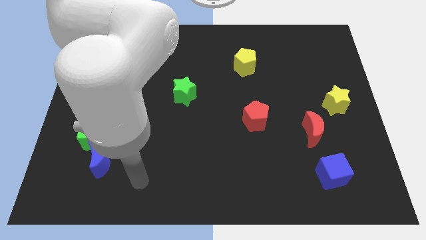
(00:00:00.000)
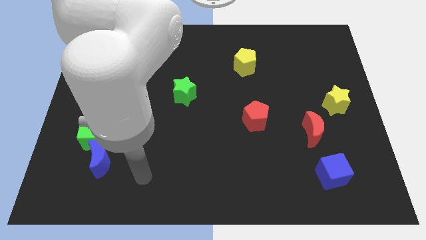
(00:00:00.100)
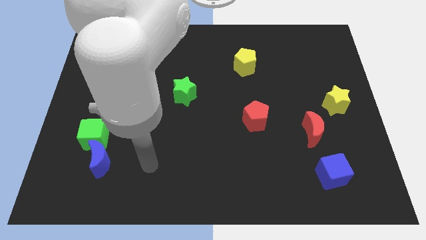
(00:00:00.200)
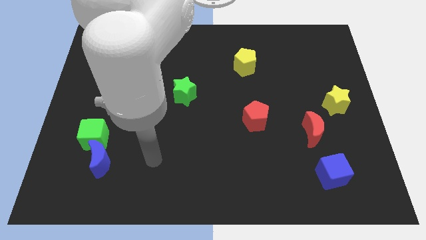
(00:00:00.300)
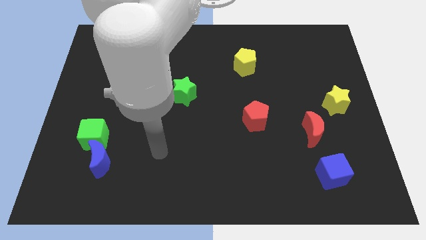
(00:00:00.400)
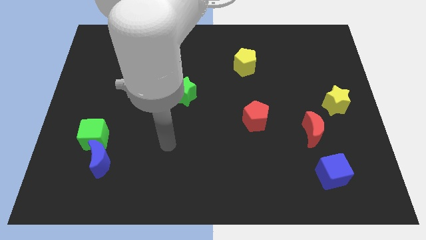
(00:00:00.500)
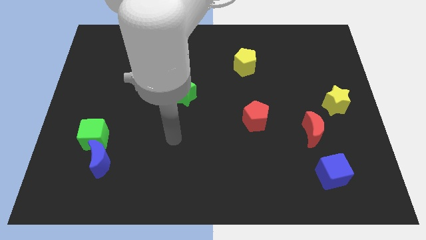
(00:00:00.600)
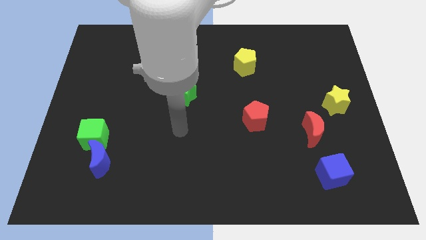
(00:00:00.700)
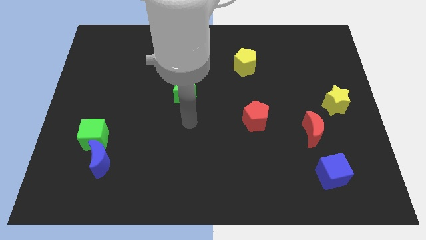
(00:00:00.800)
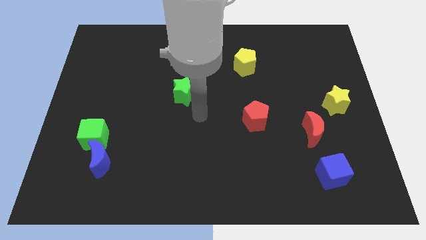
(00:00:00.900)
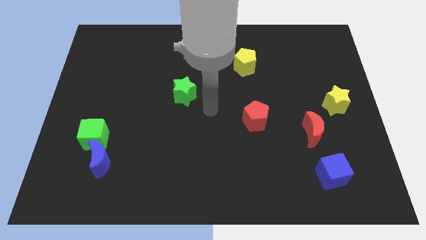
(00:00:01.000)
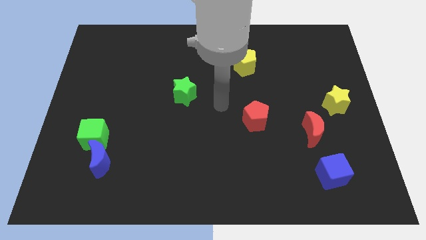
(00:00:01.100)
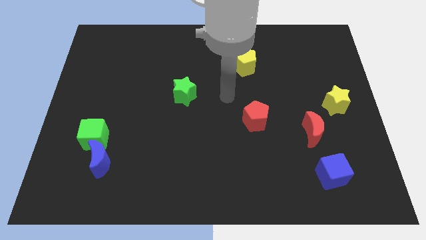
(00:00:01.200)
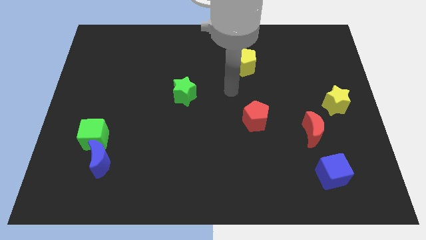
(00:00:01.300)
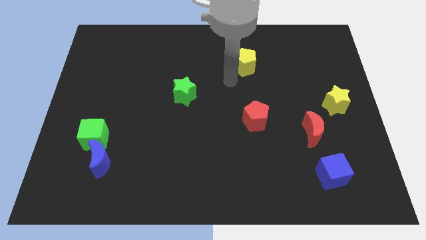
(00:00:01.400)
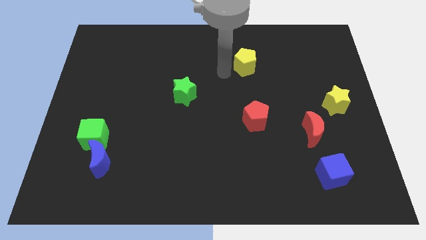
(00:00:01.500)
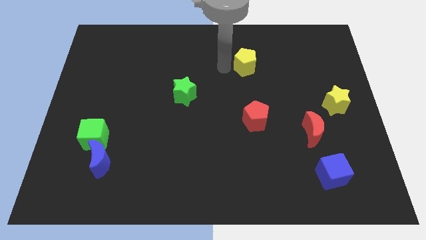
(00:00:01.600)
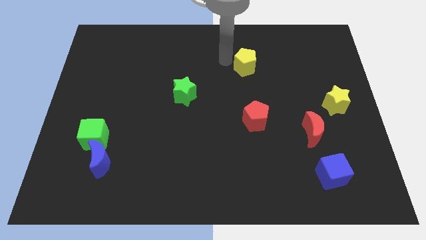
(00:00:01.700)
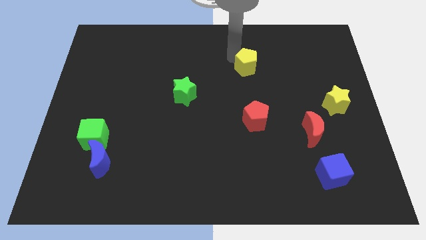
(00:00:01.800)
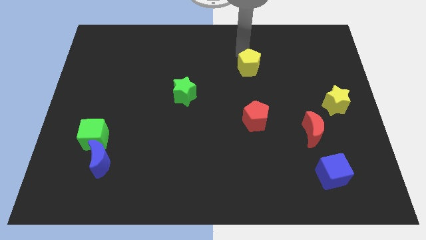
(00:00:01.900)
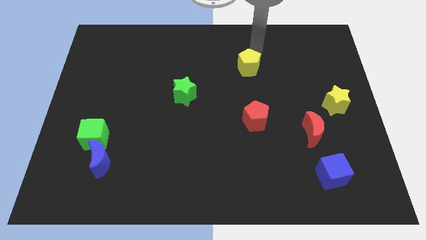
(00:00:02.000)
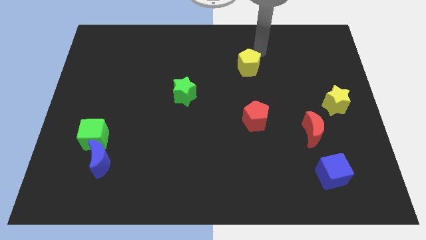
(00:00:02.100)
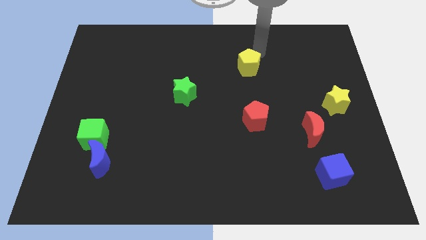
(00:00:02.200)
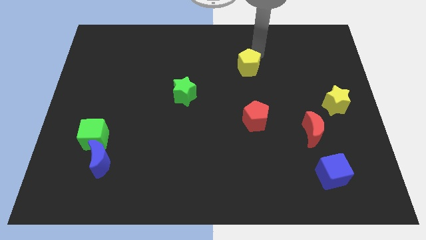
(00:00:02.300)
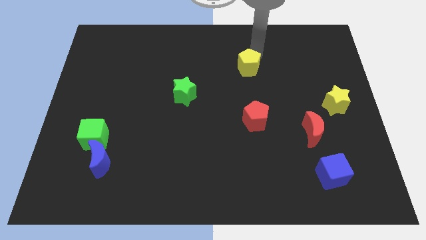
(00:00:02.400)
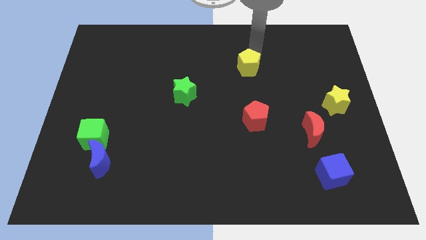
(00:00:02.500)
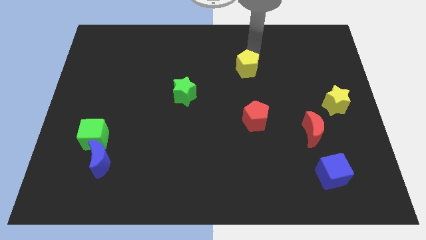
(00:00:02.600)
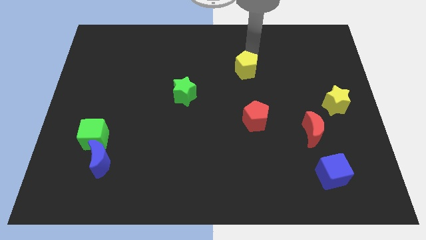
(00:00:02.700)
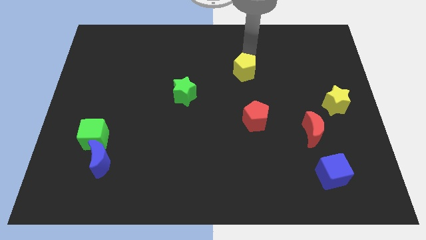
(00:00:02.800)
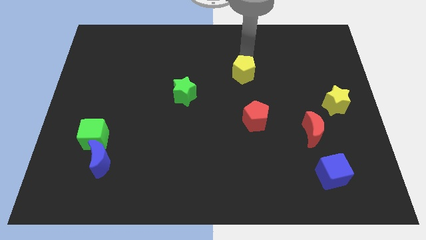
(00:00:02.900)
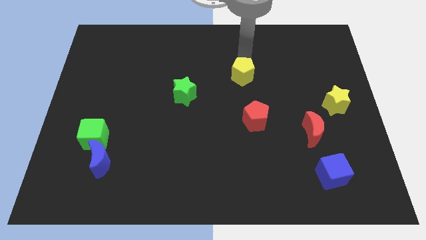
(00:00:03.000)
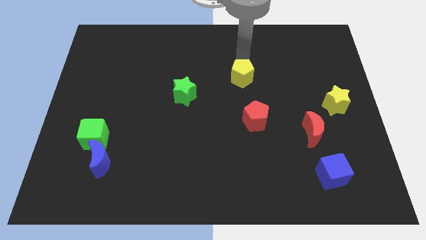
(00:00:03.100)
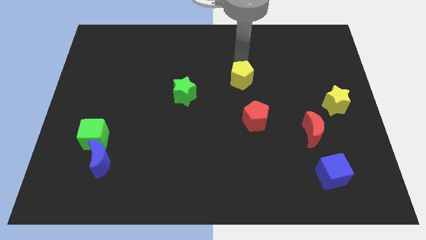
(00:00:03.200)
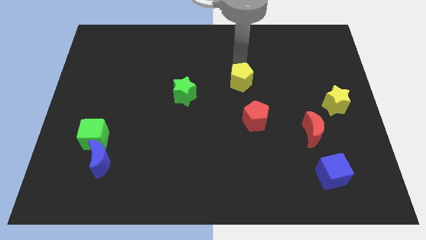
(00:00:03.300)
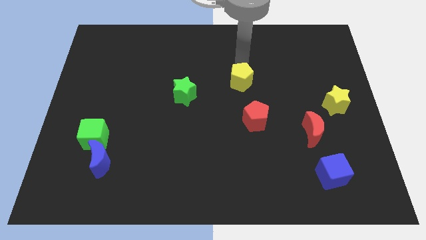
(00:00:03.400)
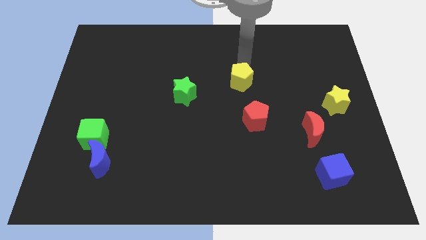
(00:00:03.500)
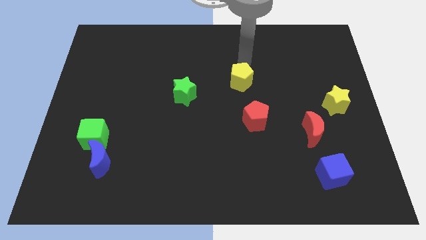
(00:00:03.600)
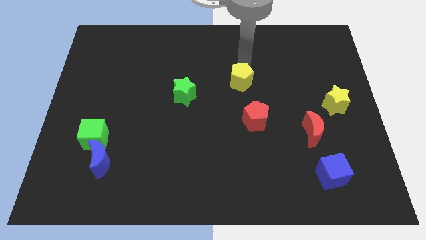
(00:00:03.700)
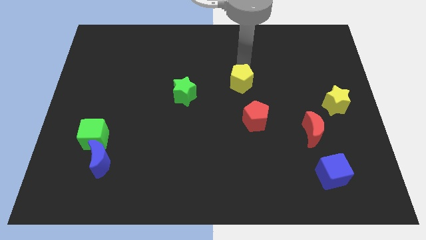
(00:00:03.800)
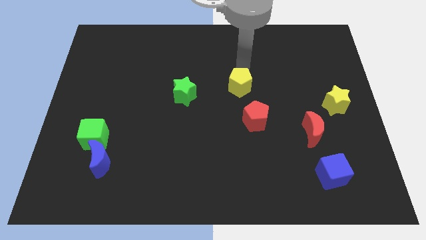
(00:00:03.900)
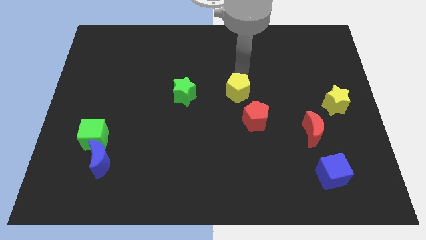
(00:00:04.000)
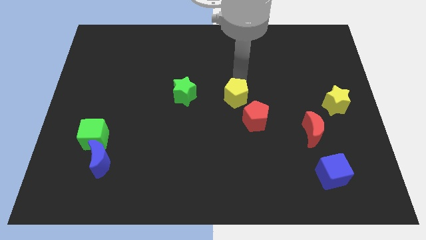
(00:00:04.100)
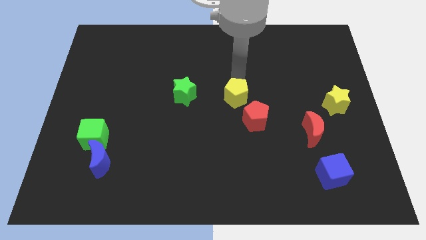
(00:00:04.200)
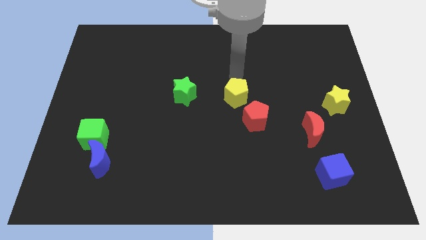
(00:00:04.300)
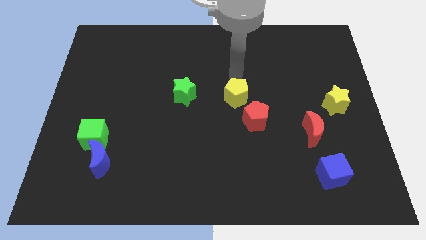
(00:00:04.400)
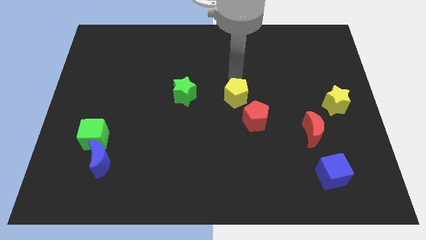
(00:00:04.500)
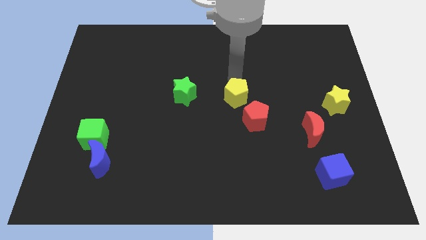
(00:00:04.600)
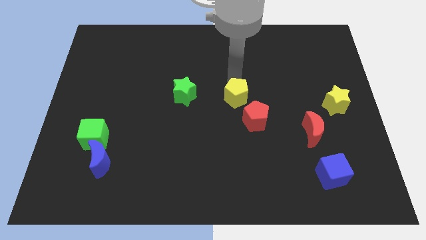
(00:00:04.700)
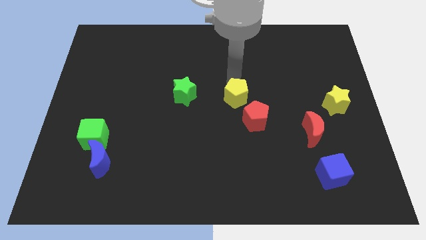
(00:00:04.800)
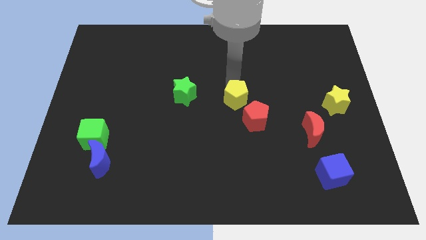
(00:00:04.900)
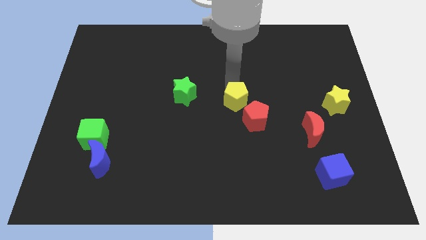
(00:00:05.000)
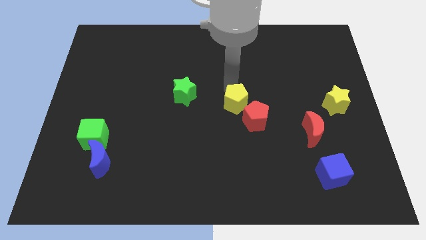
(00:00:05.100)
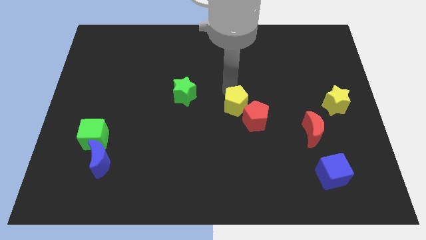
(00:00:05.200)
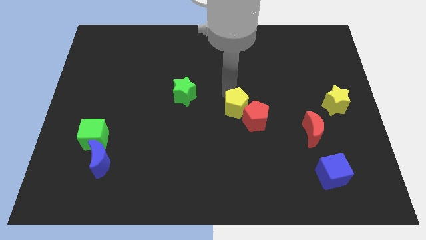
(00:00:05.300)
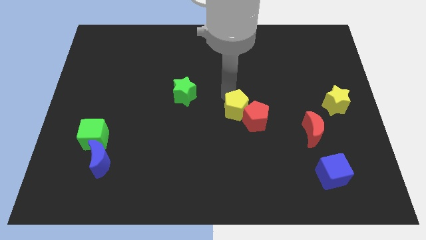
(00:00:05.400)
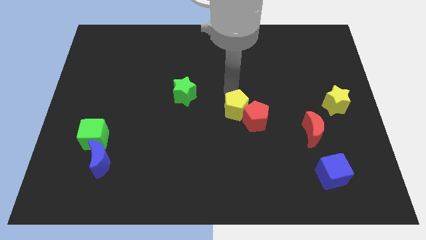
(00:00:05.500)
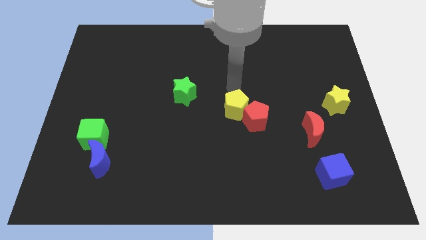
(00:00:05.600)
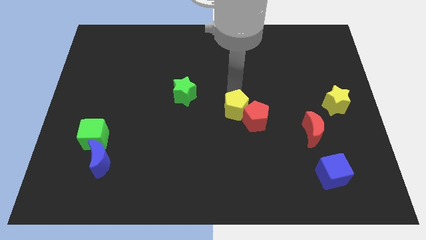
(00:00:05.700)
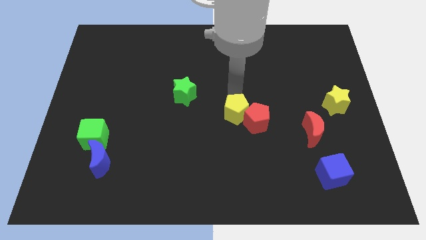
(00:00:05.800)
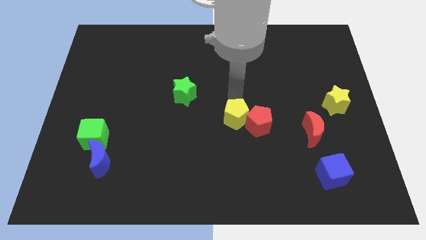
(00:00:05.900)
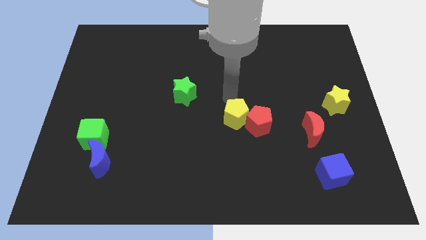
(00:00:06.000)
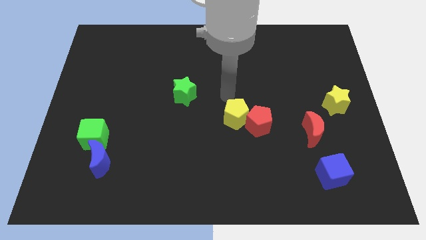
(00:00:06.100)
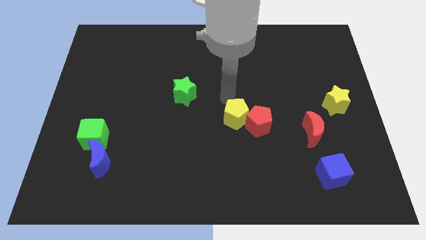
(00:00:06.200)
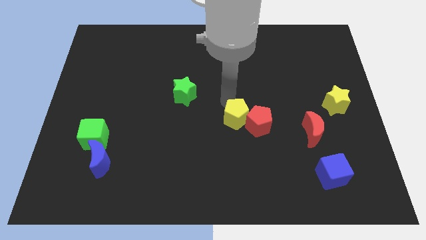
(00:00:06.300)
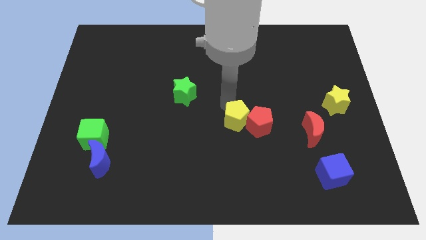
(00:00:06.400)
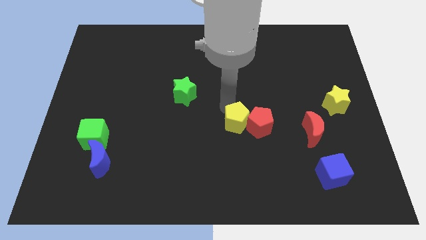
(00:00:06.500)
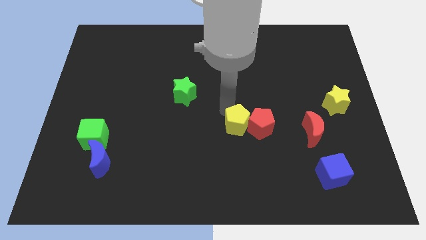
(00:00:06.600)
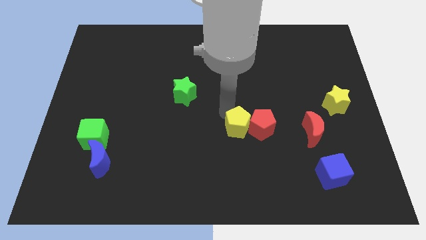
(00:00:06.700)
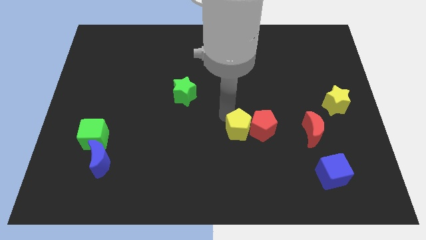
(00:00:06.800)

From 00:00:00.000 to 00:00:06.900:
push the yellow pentagon downwards

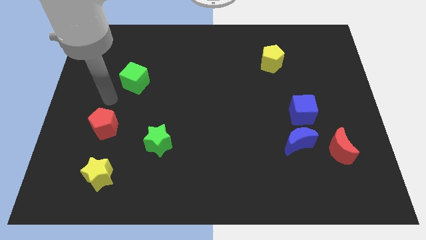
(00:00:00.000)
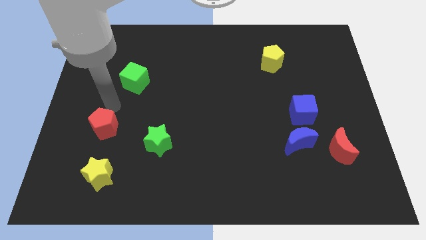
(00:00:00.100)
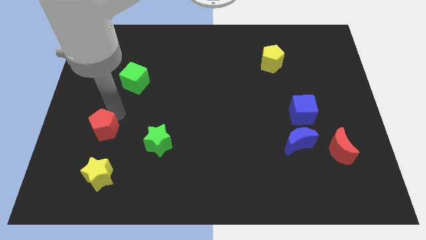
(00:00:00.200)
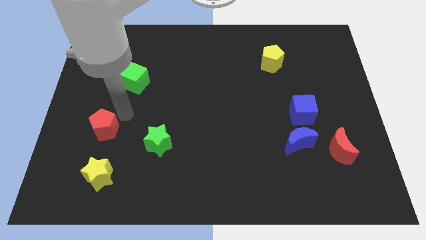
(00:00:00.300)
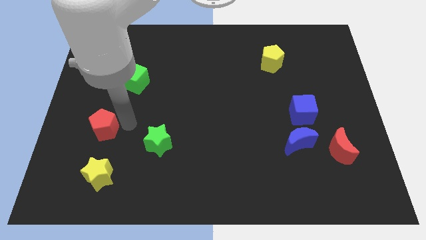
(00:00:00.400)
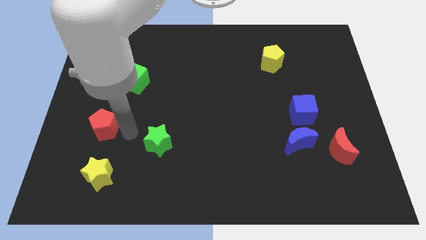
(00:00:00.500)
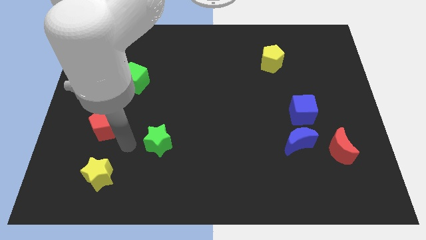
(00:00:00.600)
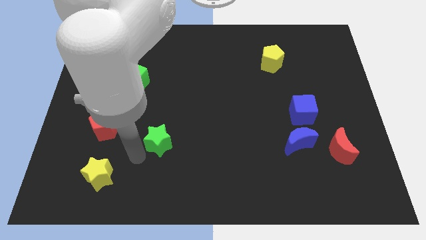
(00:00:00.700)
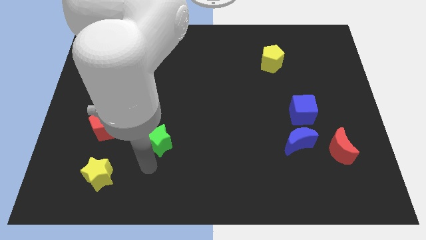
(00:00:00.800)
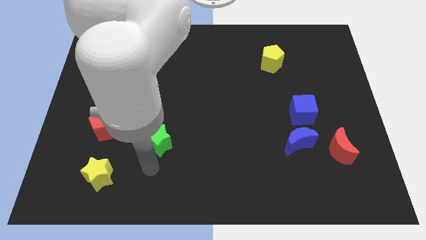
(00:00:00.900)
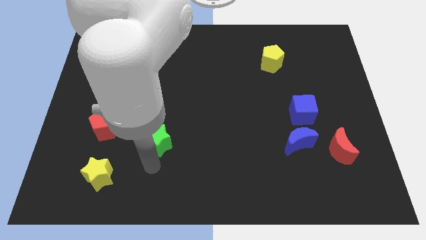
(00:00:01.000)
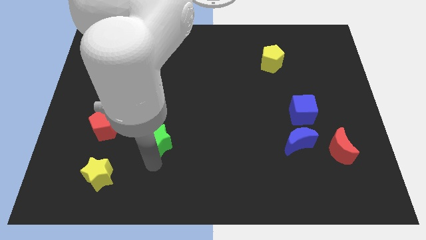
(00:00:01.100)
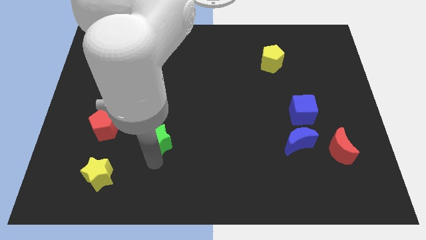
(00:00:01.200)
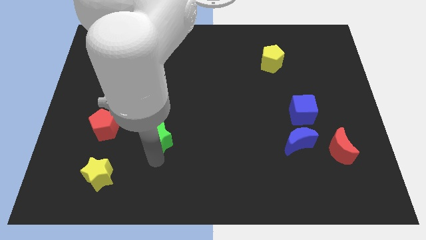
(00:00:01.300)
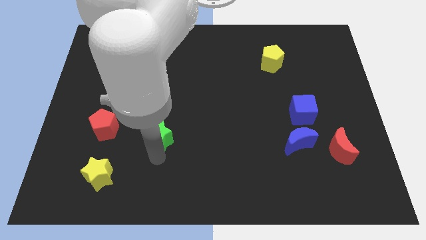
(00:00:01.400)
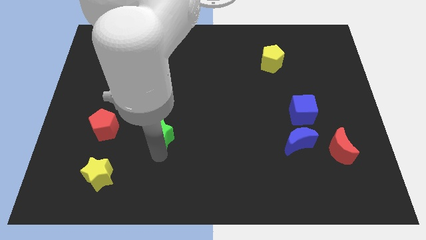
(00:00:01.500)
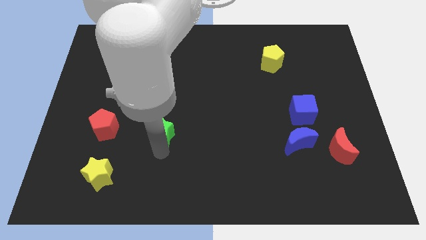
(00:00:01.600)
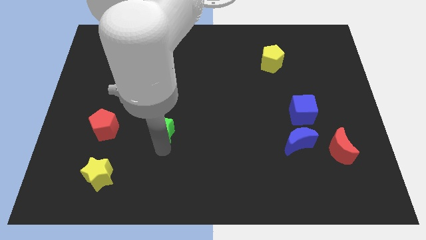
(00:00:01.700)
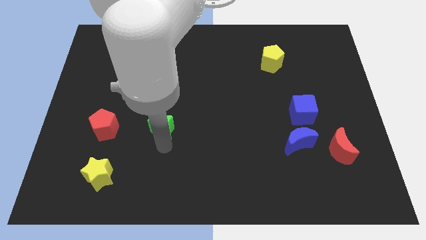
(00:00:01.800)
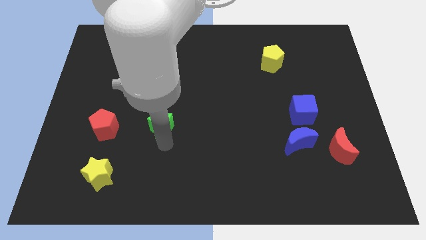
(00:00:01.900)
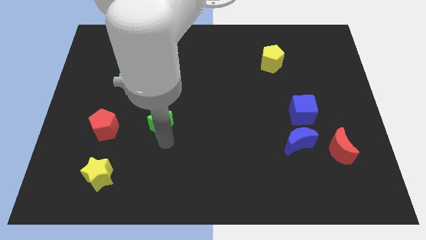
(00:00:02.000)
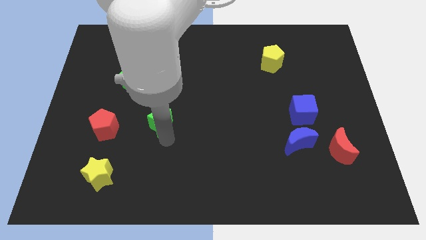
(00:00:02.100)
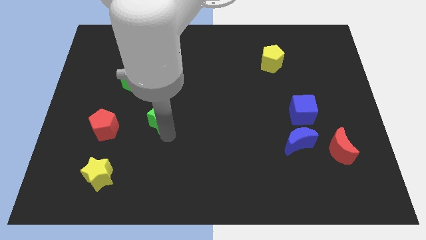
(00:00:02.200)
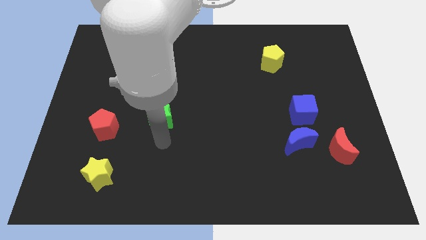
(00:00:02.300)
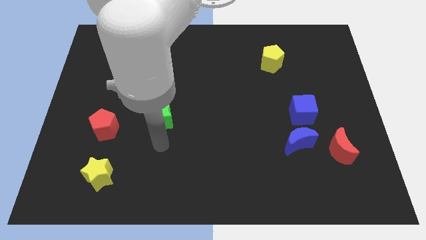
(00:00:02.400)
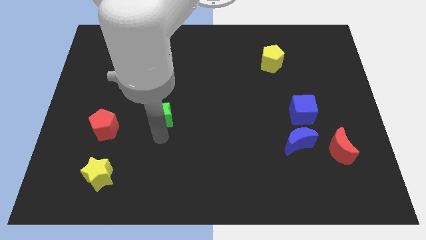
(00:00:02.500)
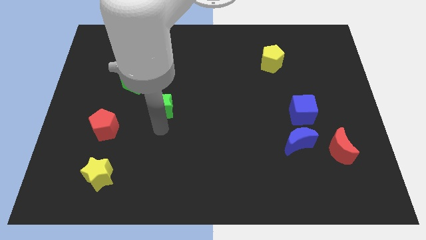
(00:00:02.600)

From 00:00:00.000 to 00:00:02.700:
slightly push the green star up
